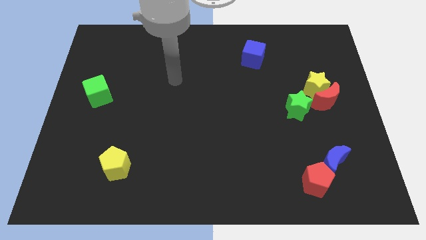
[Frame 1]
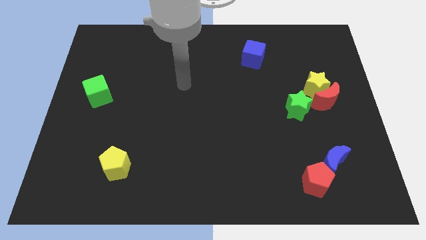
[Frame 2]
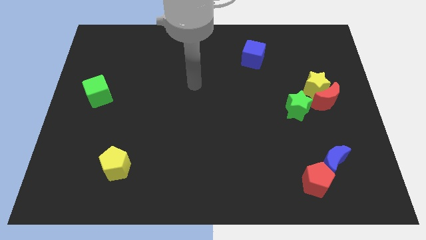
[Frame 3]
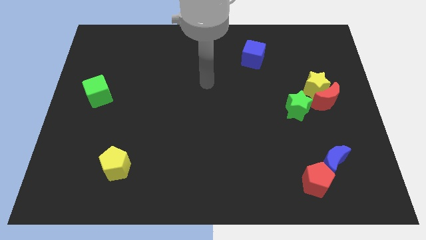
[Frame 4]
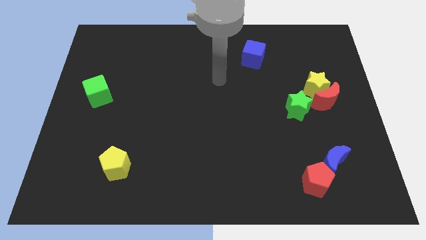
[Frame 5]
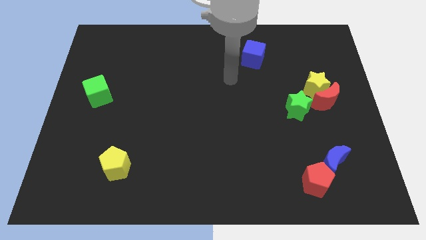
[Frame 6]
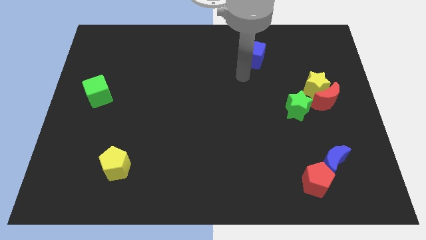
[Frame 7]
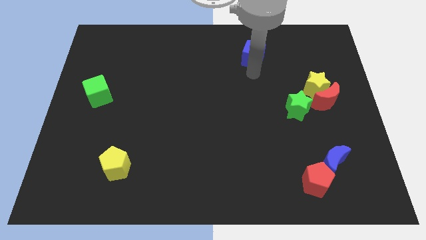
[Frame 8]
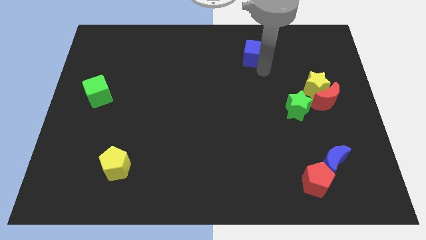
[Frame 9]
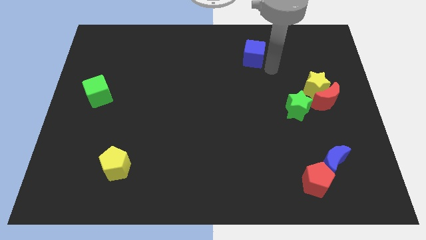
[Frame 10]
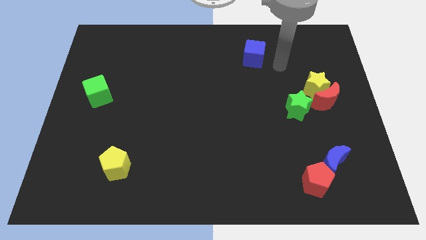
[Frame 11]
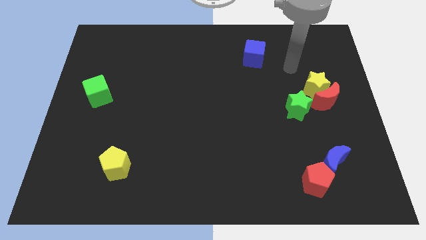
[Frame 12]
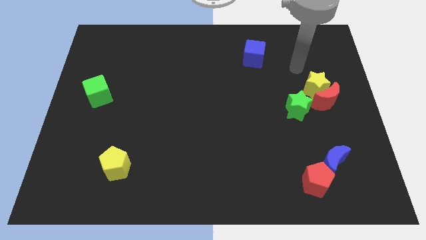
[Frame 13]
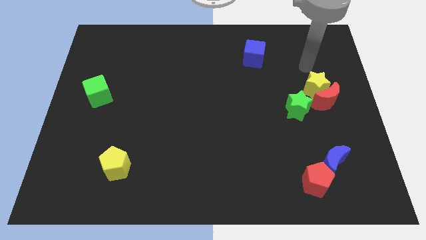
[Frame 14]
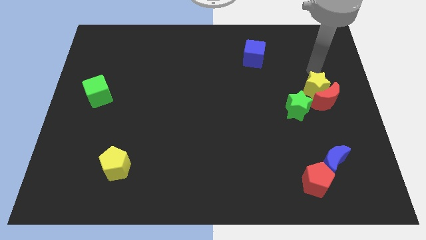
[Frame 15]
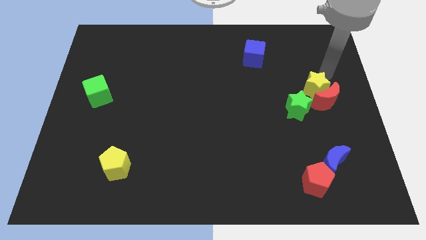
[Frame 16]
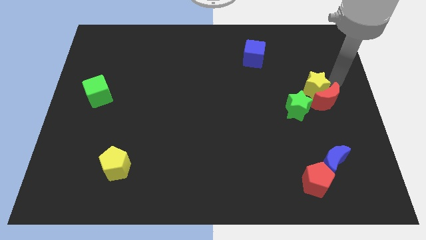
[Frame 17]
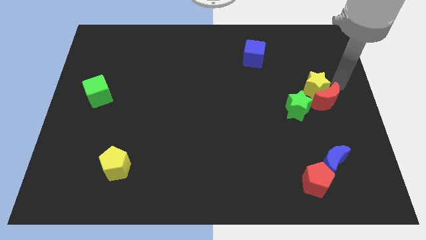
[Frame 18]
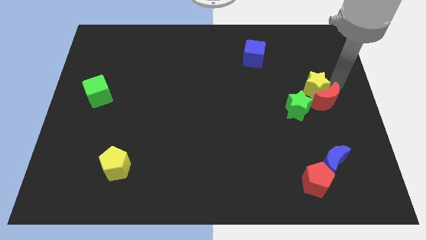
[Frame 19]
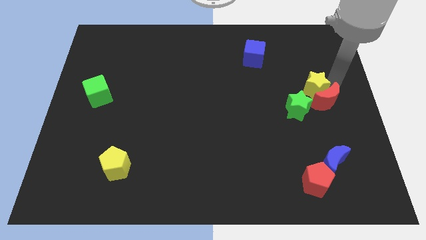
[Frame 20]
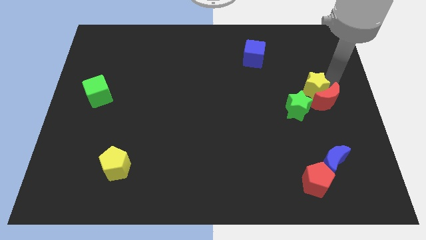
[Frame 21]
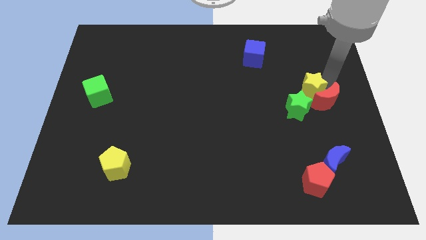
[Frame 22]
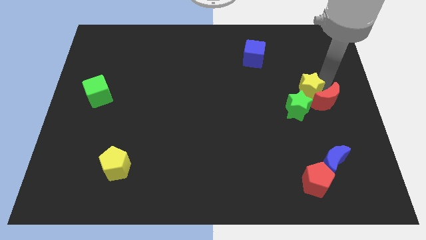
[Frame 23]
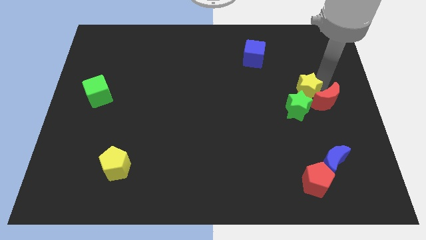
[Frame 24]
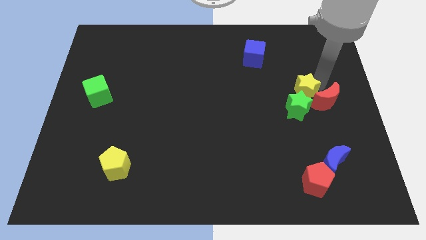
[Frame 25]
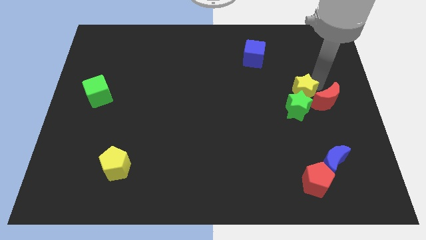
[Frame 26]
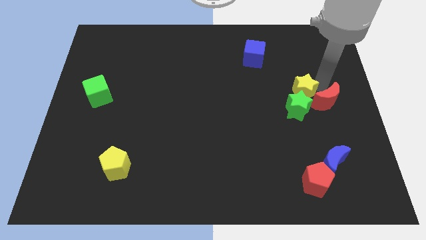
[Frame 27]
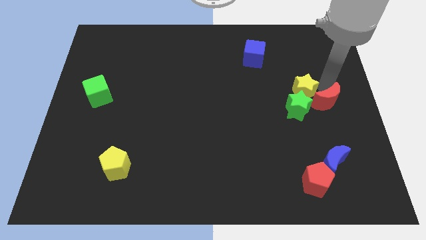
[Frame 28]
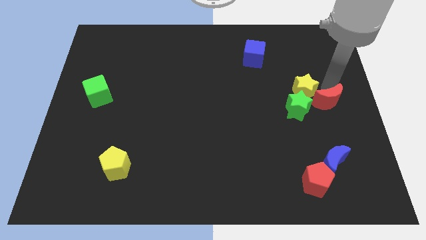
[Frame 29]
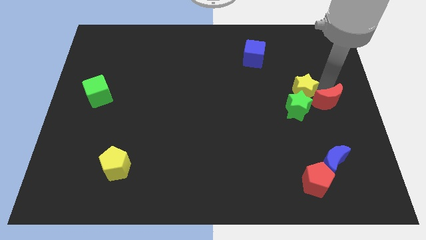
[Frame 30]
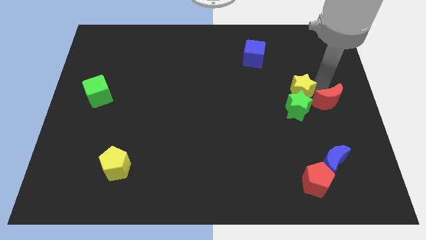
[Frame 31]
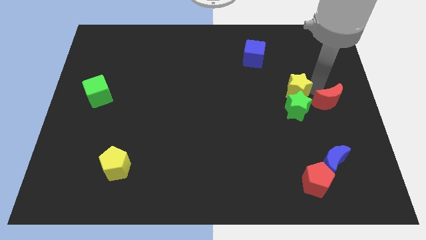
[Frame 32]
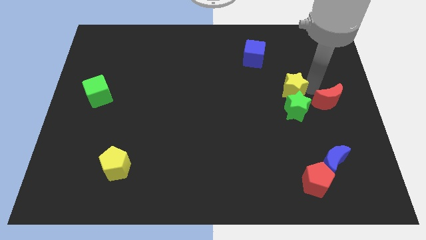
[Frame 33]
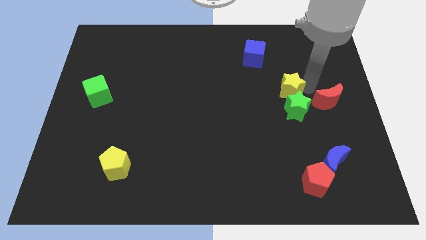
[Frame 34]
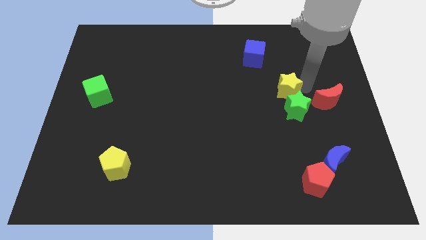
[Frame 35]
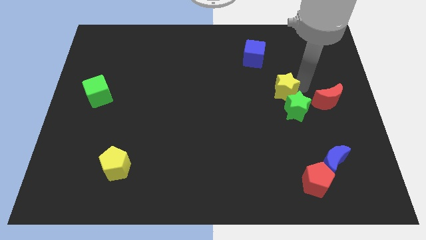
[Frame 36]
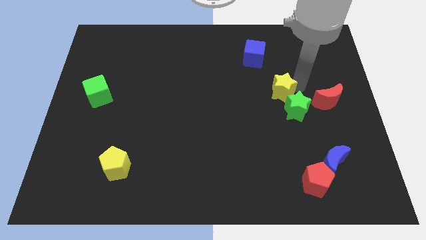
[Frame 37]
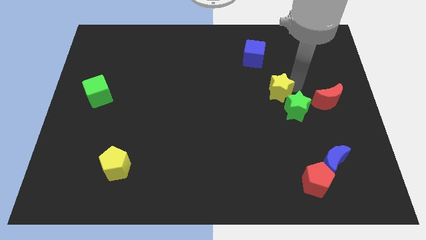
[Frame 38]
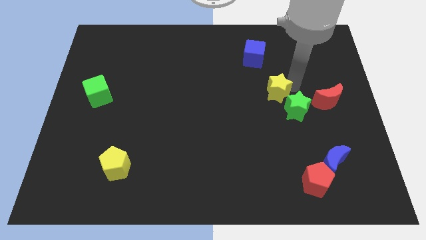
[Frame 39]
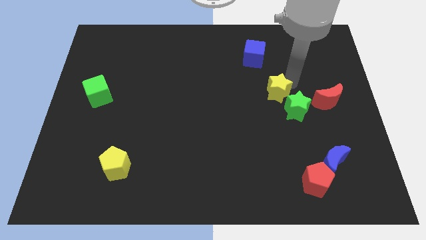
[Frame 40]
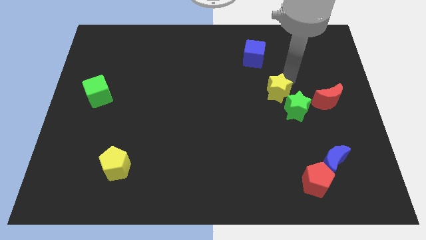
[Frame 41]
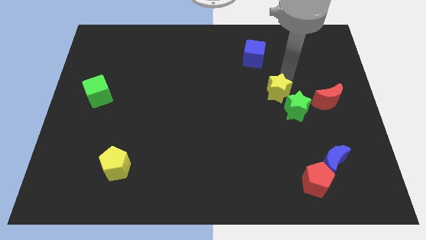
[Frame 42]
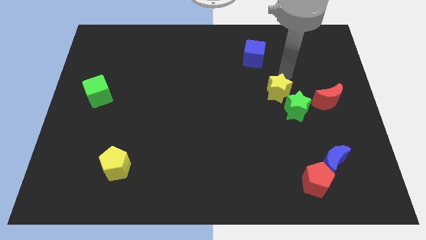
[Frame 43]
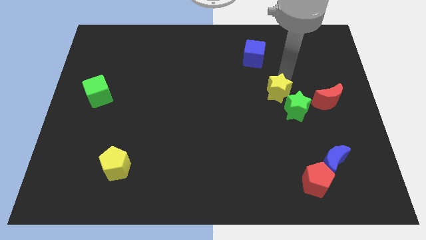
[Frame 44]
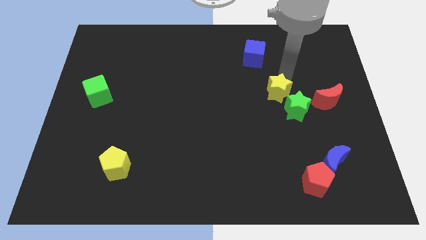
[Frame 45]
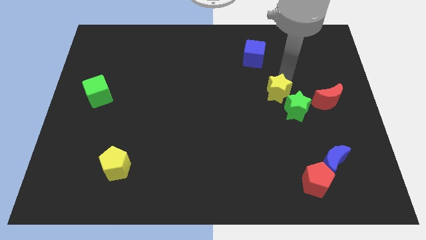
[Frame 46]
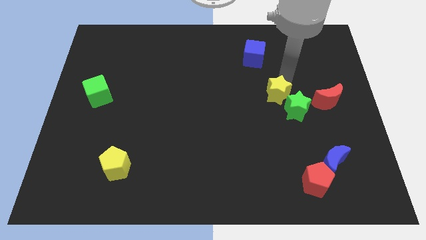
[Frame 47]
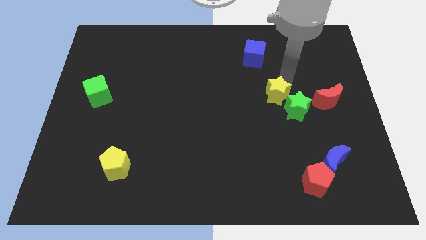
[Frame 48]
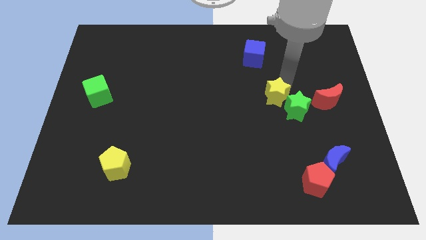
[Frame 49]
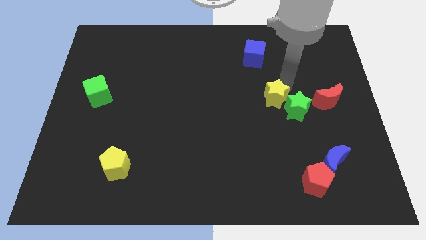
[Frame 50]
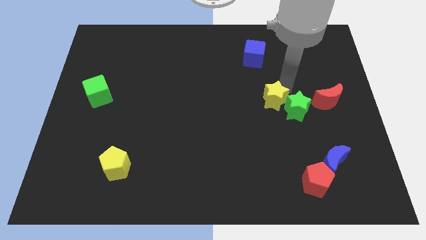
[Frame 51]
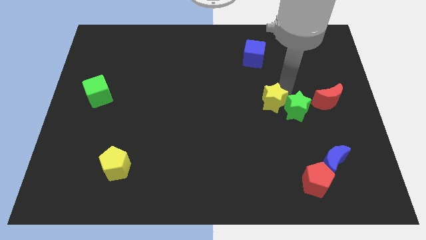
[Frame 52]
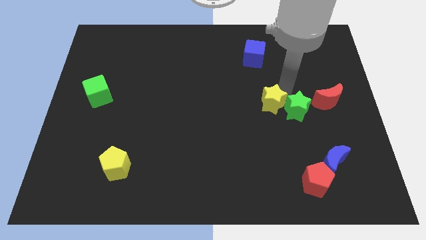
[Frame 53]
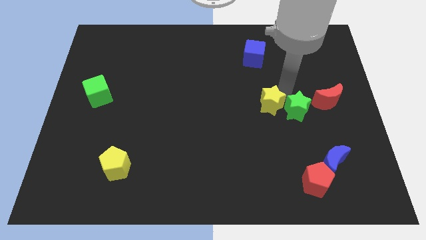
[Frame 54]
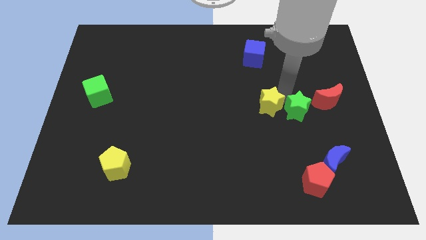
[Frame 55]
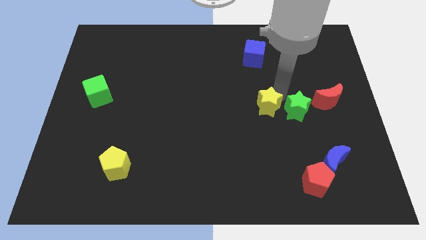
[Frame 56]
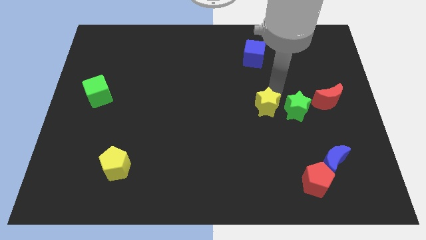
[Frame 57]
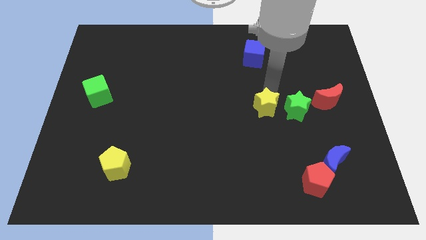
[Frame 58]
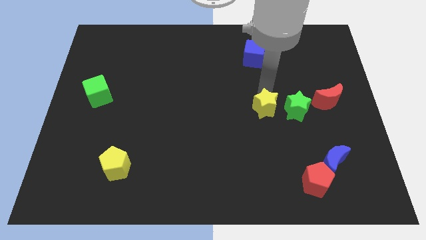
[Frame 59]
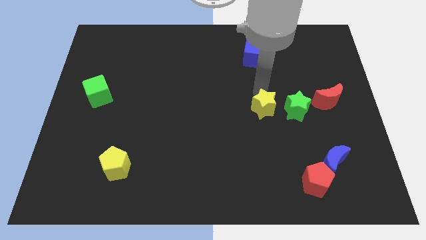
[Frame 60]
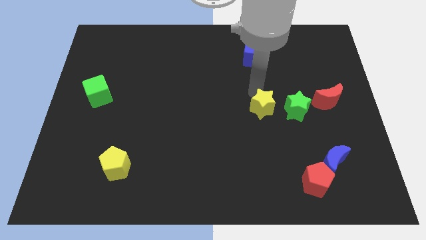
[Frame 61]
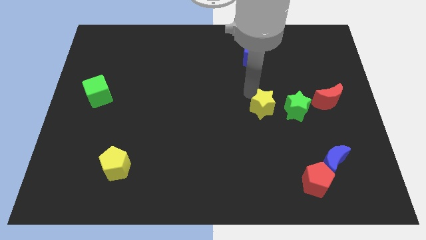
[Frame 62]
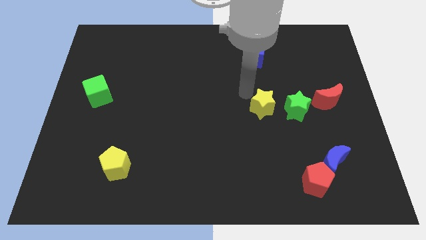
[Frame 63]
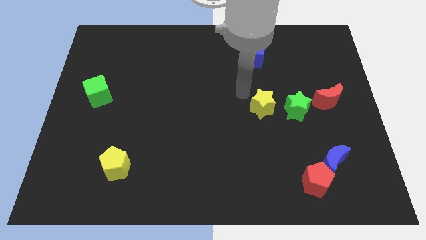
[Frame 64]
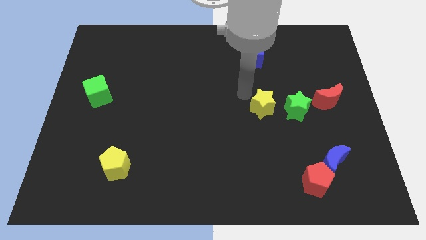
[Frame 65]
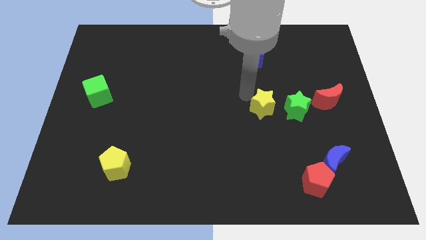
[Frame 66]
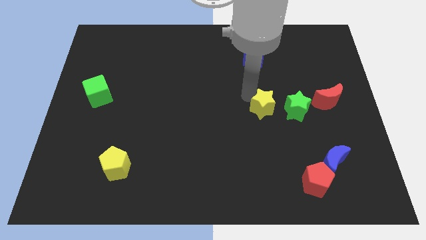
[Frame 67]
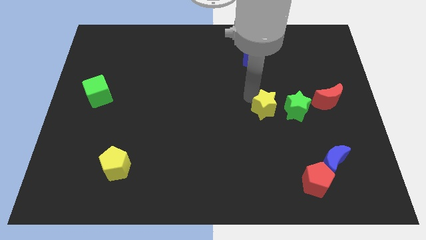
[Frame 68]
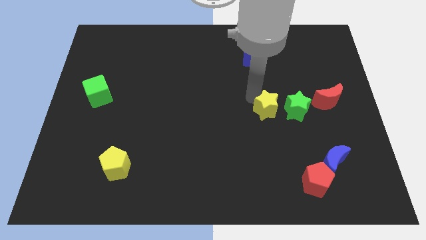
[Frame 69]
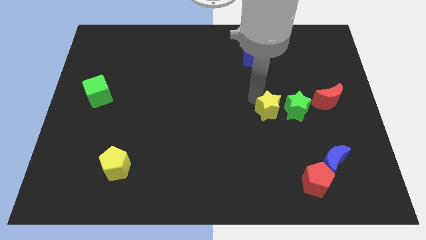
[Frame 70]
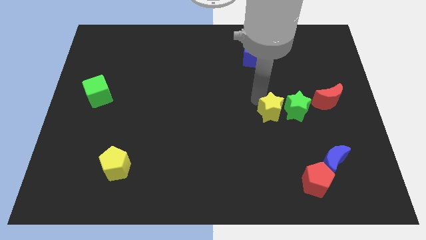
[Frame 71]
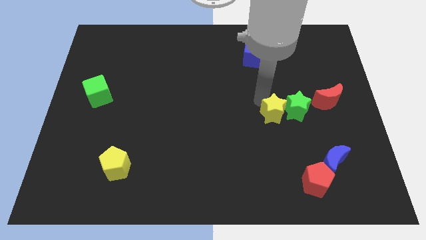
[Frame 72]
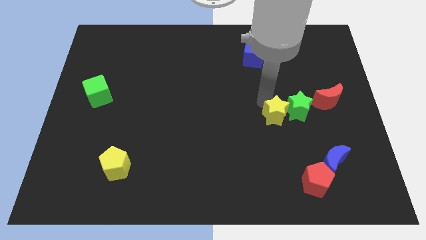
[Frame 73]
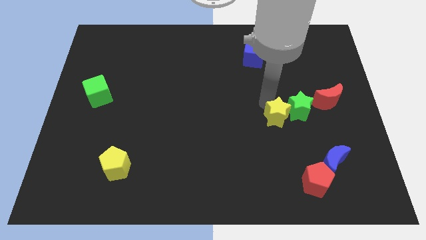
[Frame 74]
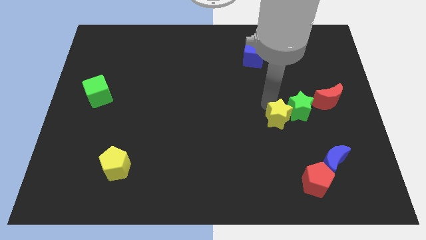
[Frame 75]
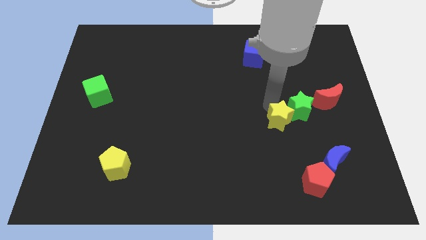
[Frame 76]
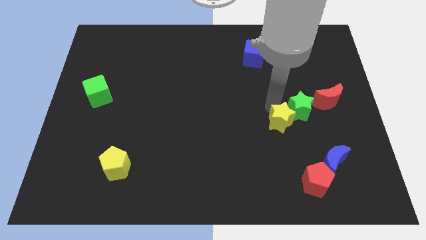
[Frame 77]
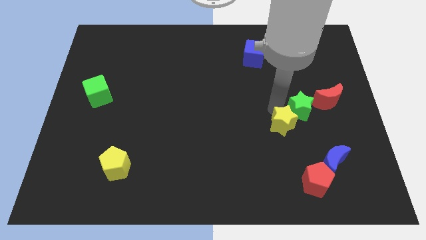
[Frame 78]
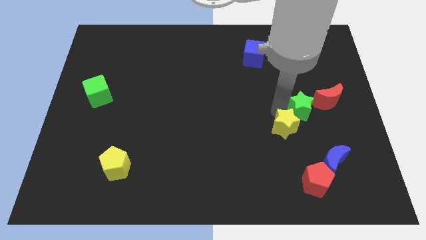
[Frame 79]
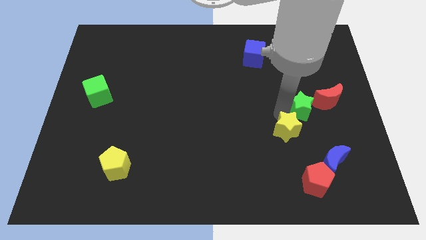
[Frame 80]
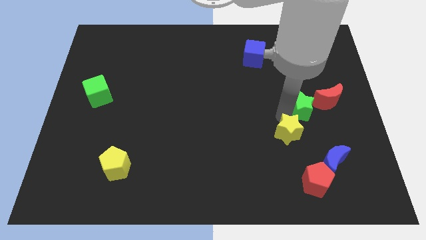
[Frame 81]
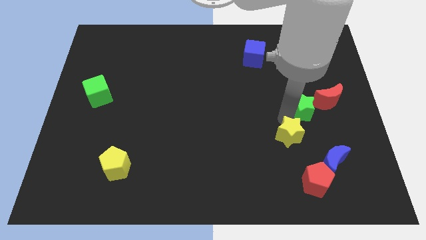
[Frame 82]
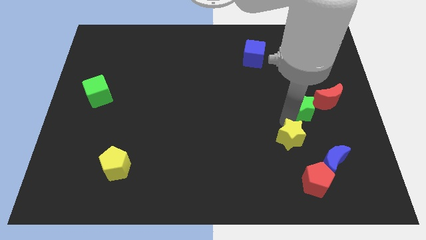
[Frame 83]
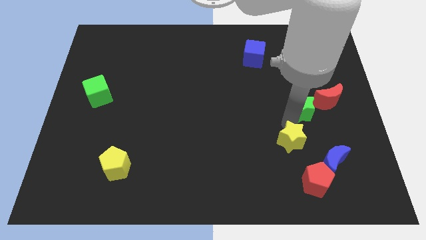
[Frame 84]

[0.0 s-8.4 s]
move the yellow star to the top left of the red pentagon
